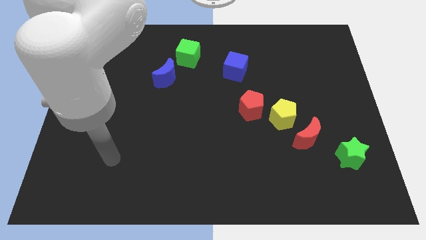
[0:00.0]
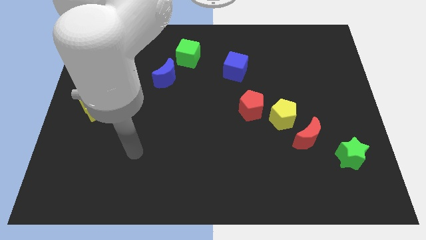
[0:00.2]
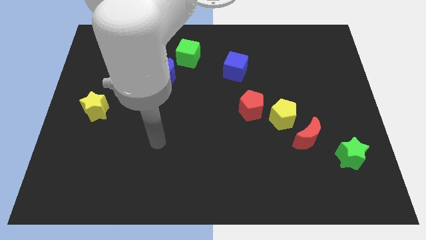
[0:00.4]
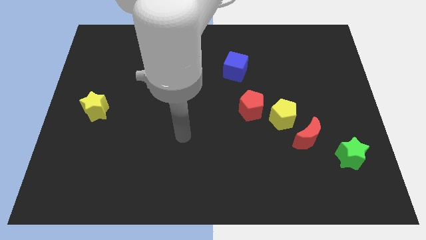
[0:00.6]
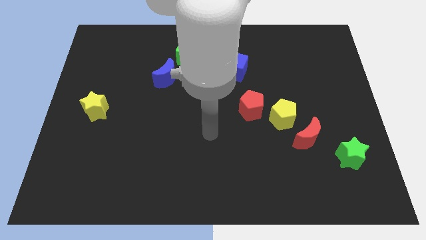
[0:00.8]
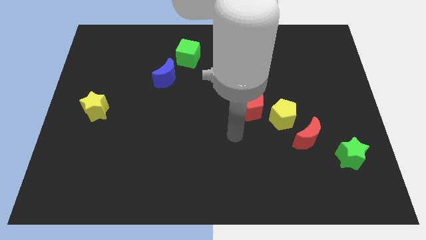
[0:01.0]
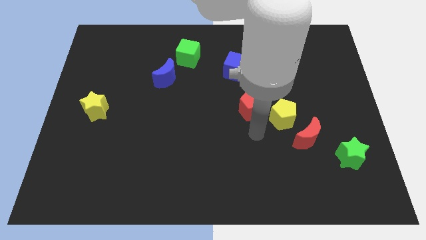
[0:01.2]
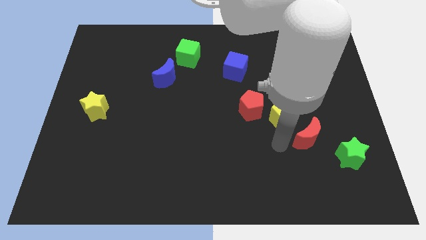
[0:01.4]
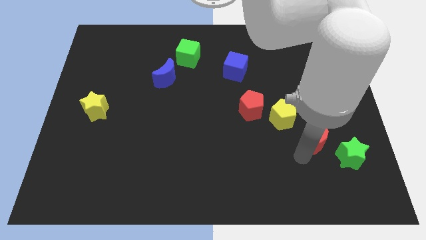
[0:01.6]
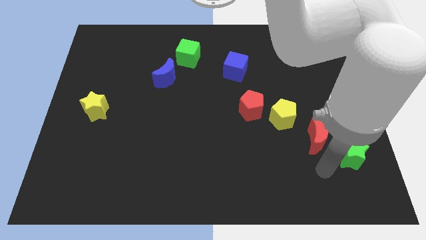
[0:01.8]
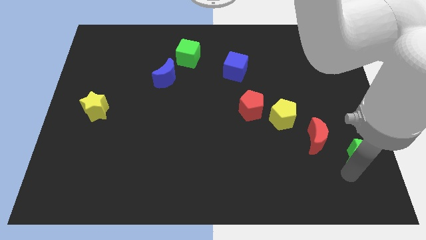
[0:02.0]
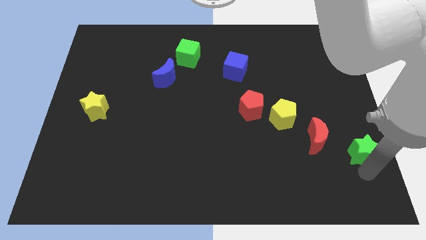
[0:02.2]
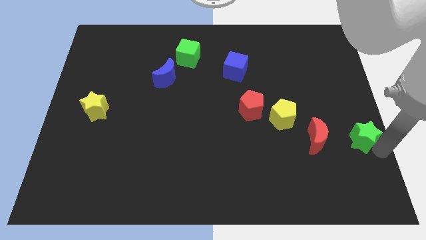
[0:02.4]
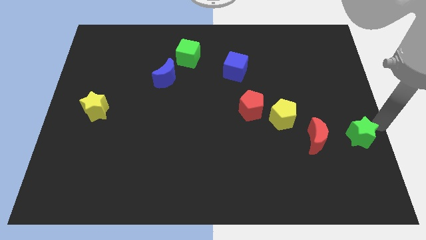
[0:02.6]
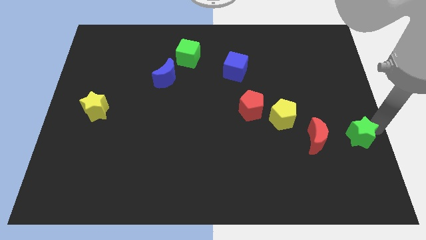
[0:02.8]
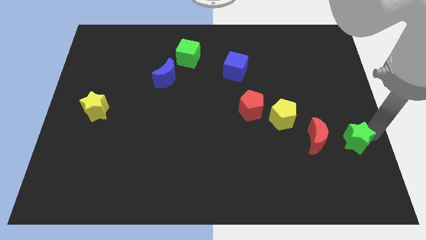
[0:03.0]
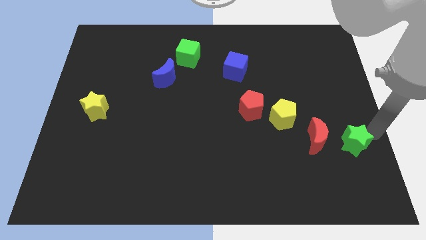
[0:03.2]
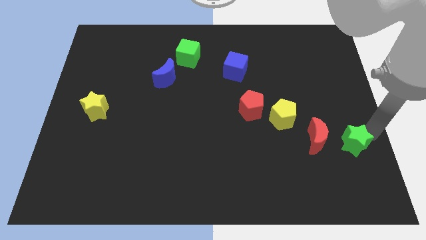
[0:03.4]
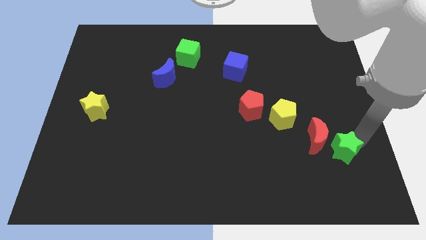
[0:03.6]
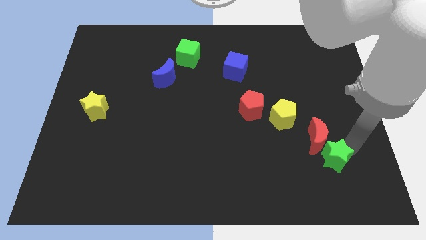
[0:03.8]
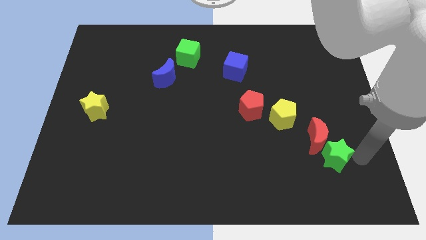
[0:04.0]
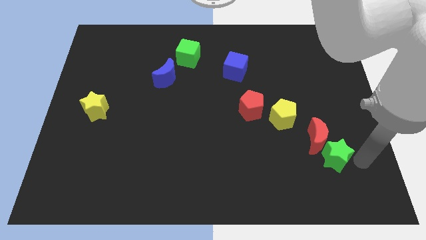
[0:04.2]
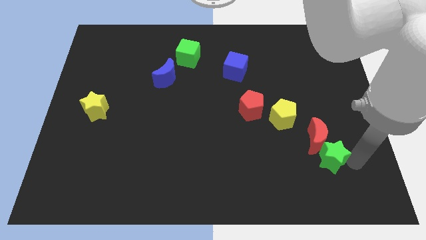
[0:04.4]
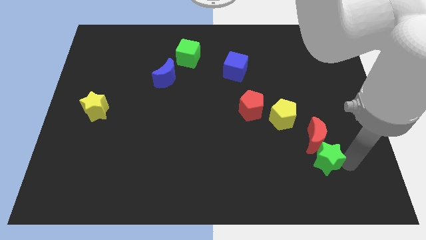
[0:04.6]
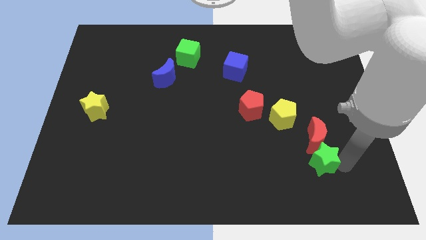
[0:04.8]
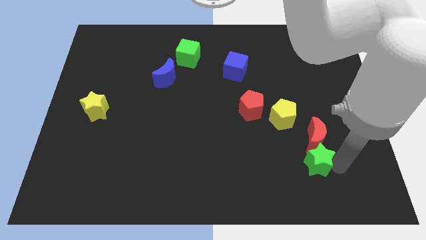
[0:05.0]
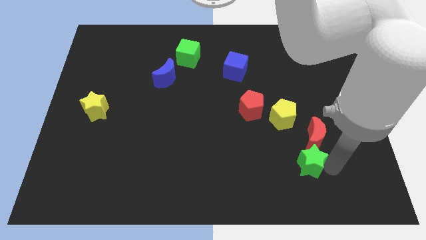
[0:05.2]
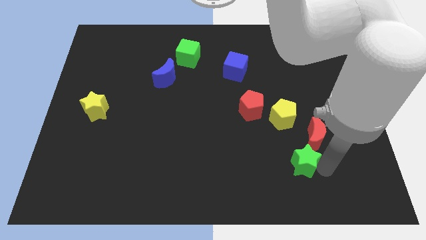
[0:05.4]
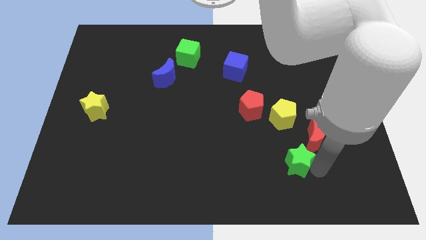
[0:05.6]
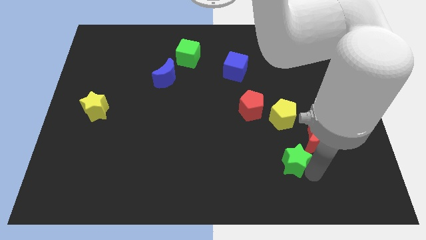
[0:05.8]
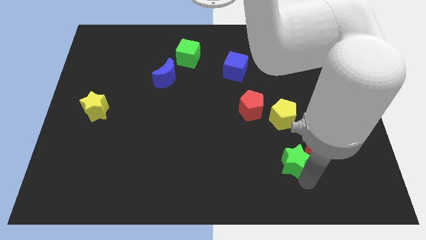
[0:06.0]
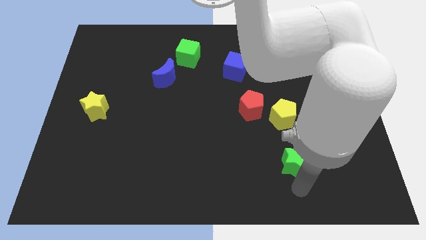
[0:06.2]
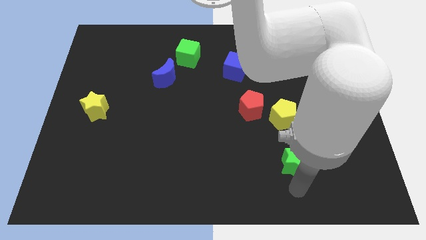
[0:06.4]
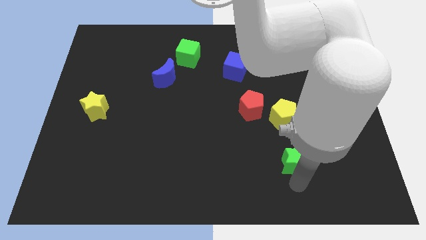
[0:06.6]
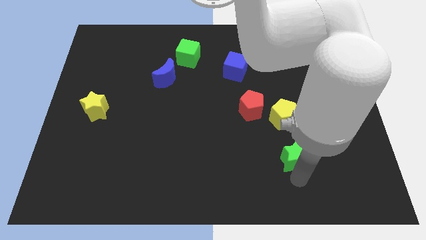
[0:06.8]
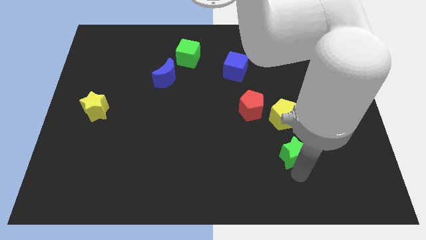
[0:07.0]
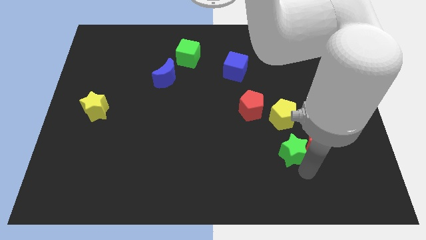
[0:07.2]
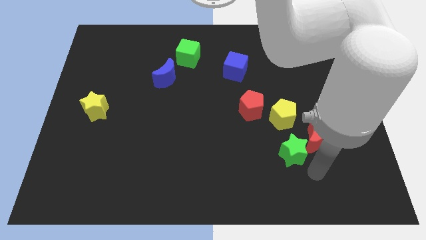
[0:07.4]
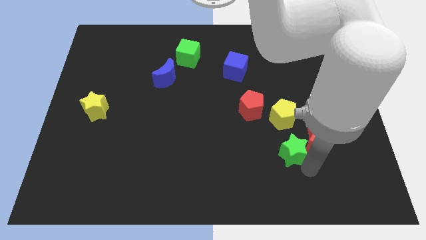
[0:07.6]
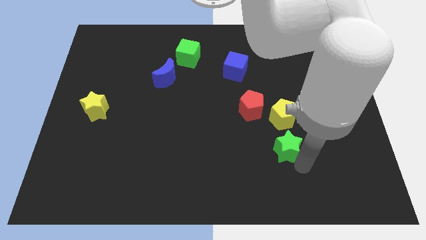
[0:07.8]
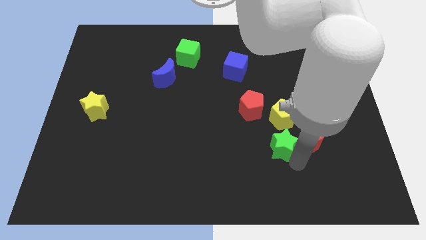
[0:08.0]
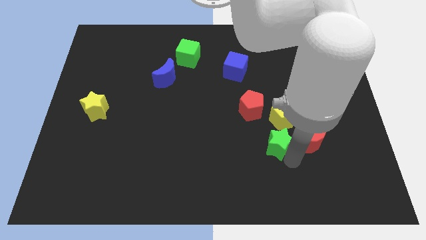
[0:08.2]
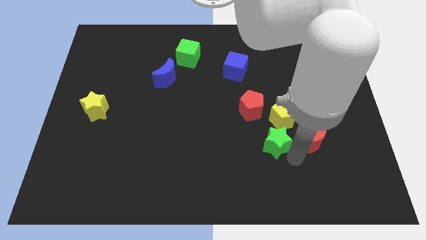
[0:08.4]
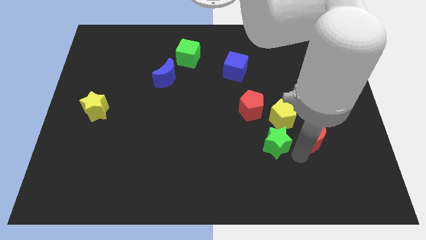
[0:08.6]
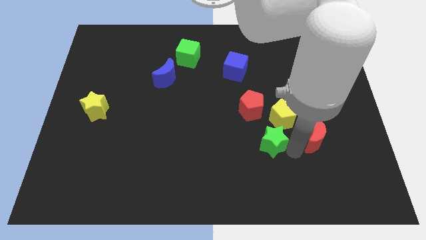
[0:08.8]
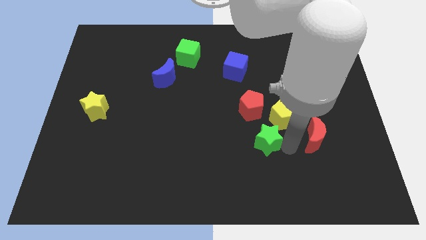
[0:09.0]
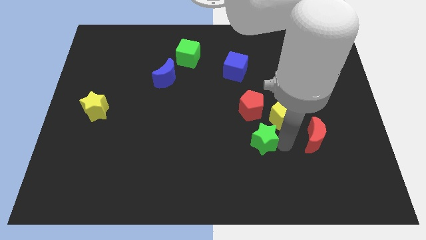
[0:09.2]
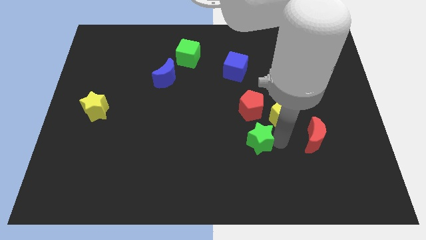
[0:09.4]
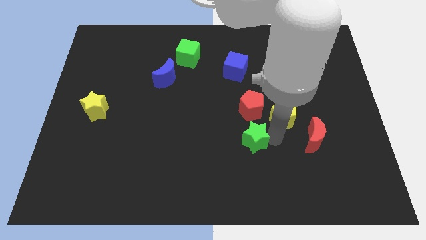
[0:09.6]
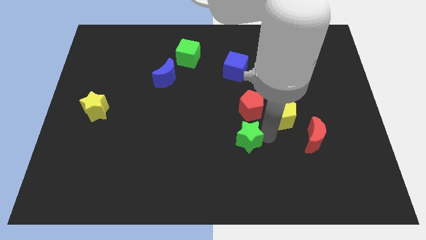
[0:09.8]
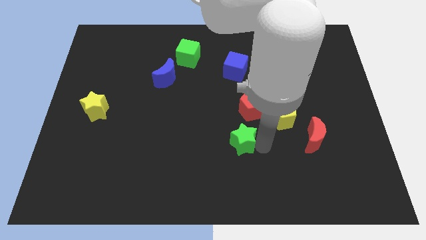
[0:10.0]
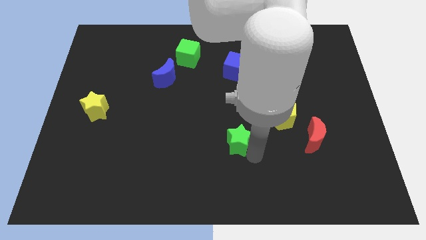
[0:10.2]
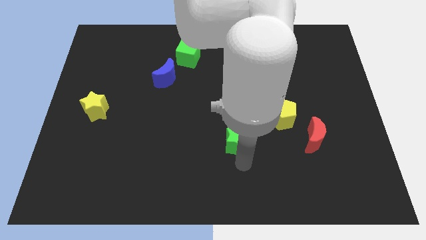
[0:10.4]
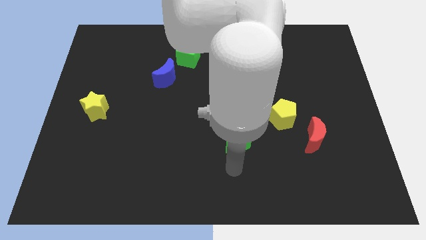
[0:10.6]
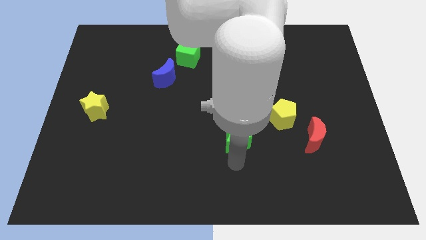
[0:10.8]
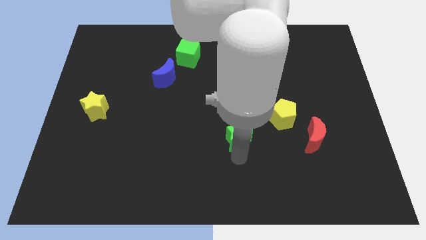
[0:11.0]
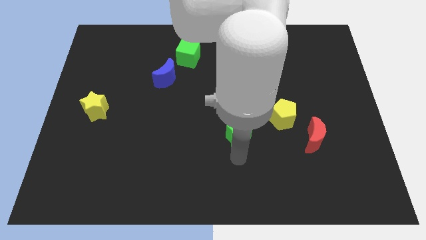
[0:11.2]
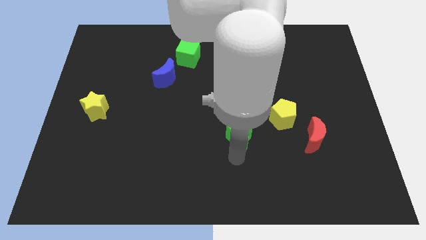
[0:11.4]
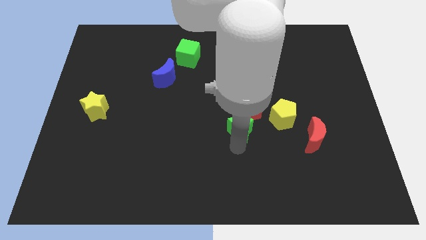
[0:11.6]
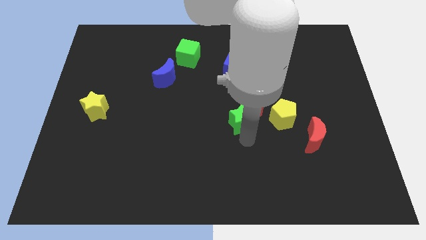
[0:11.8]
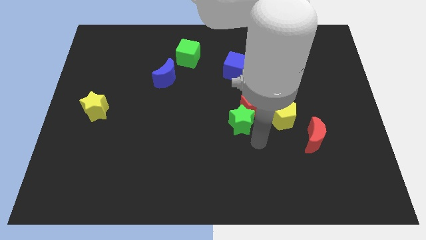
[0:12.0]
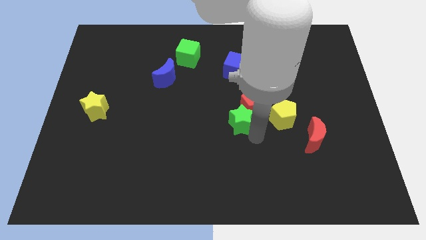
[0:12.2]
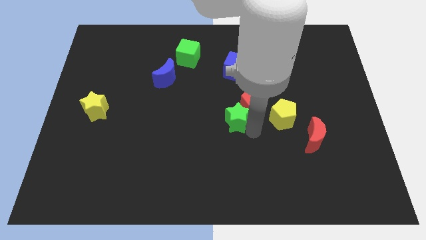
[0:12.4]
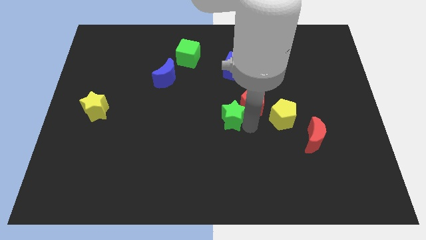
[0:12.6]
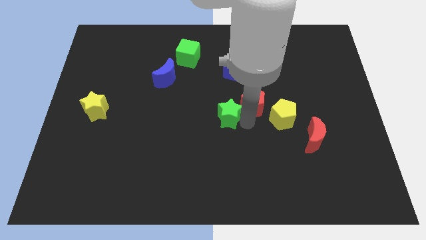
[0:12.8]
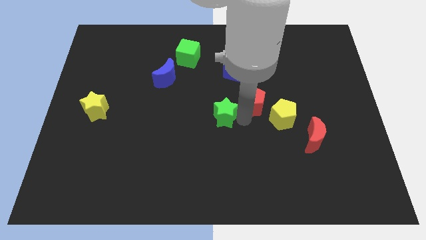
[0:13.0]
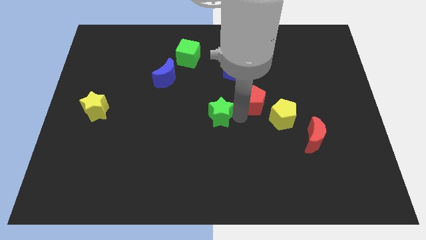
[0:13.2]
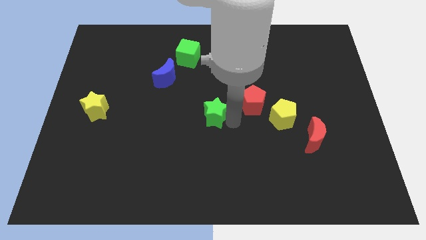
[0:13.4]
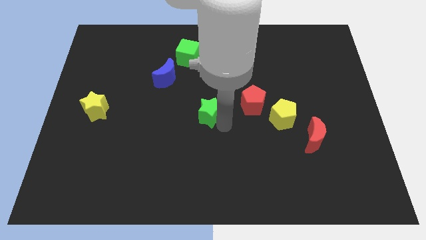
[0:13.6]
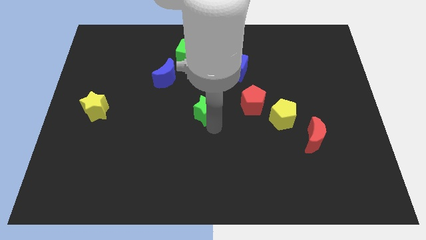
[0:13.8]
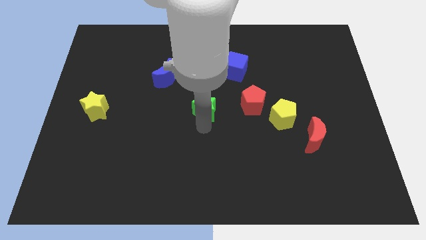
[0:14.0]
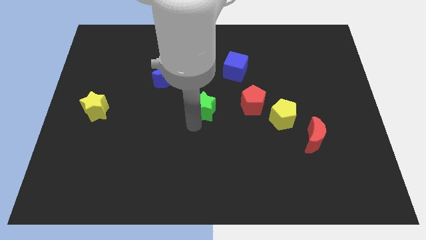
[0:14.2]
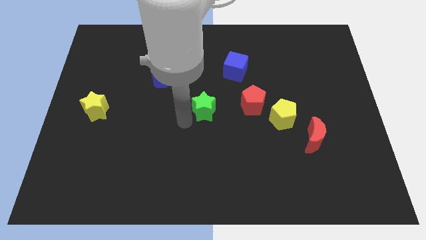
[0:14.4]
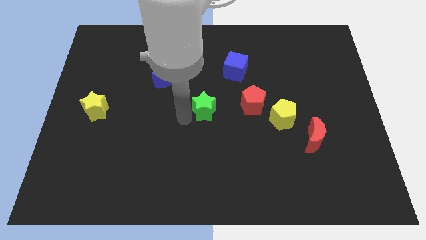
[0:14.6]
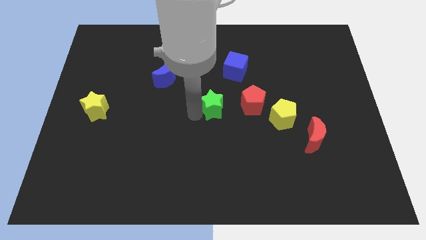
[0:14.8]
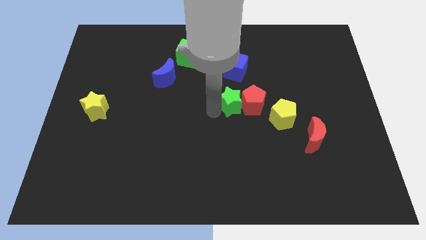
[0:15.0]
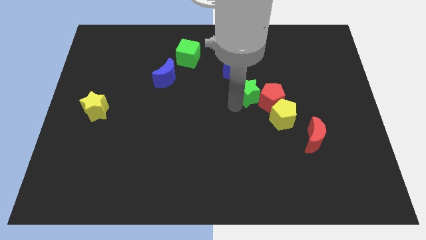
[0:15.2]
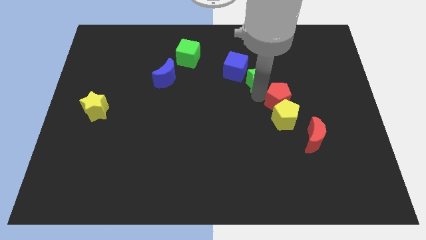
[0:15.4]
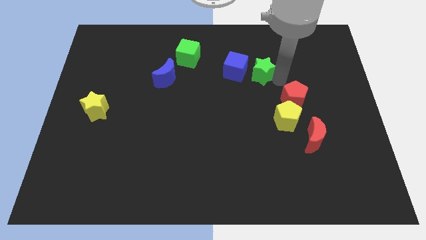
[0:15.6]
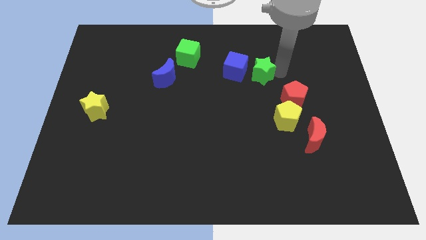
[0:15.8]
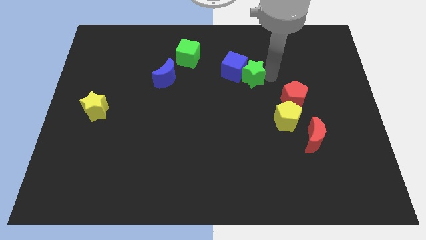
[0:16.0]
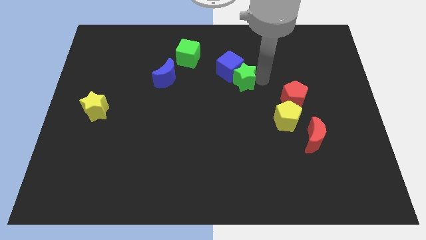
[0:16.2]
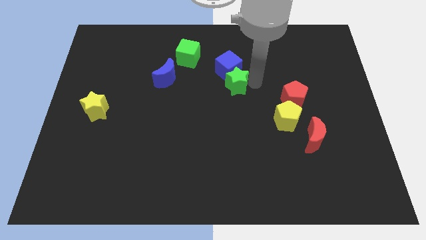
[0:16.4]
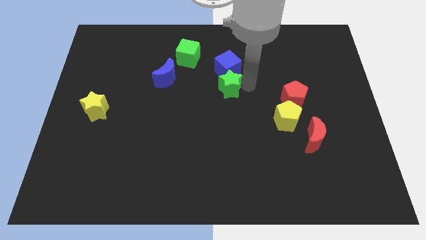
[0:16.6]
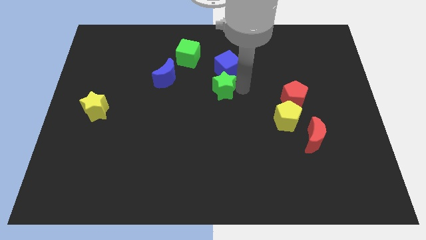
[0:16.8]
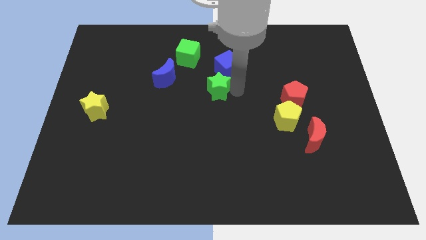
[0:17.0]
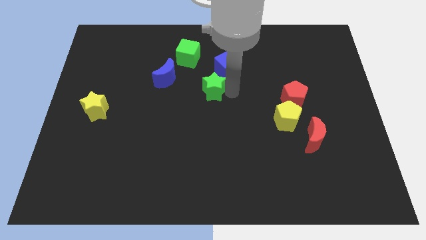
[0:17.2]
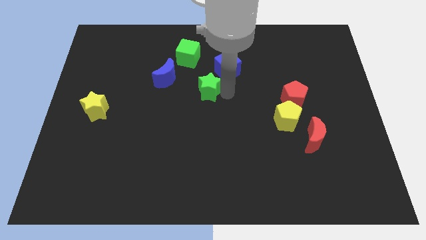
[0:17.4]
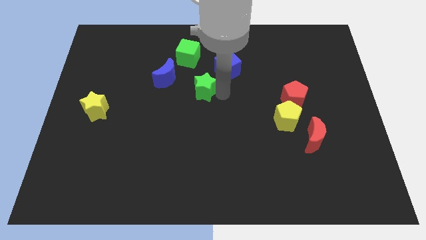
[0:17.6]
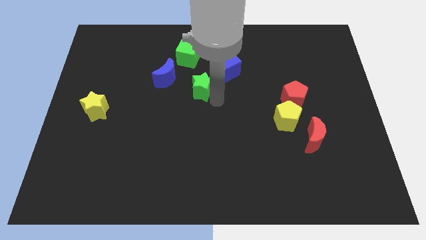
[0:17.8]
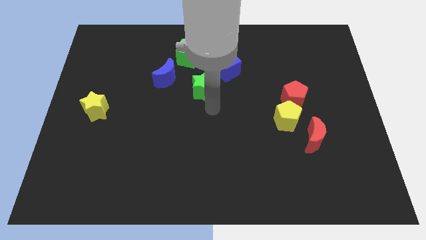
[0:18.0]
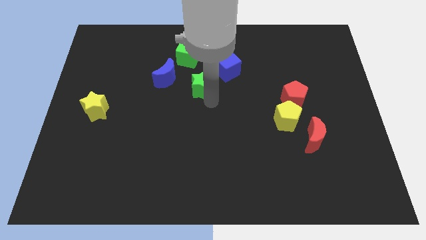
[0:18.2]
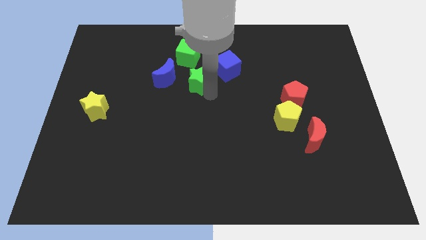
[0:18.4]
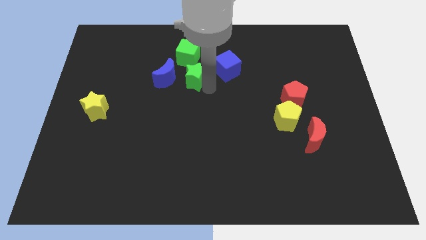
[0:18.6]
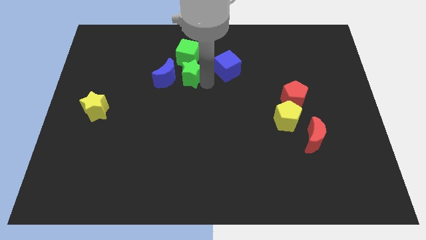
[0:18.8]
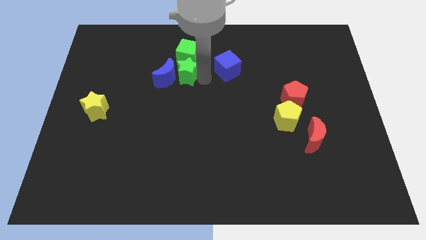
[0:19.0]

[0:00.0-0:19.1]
move the green star close to the green cube
